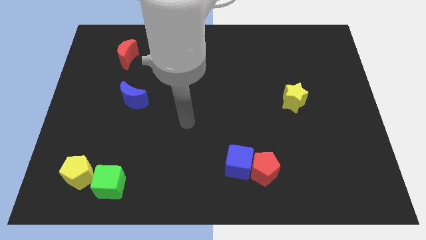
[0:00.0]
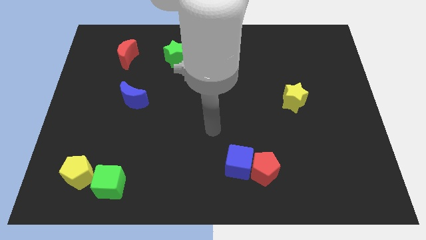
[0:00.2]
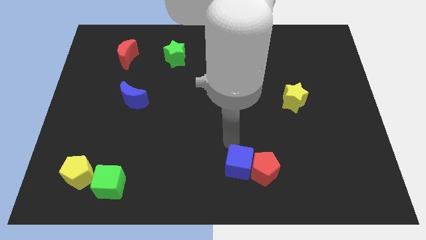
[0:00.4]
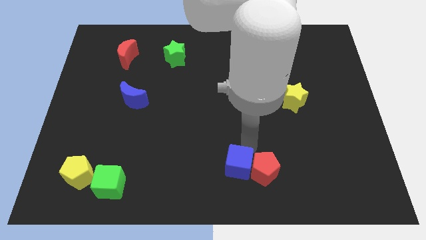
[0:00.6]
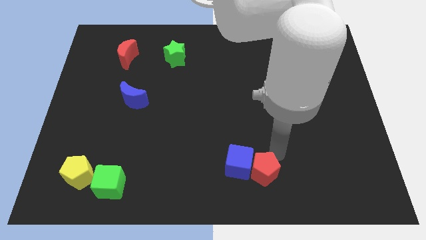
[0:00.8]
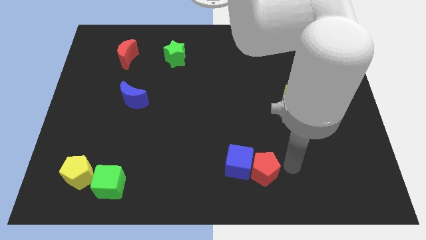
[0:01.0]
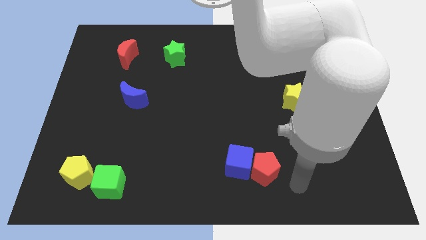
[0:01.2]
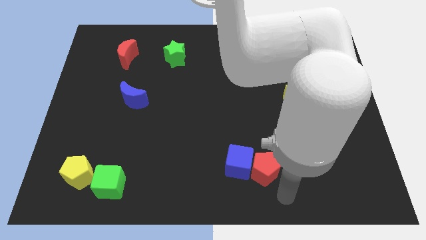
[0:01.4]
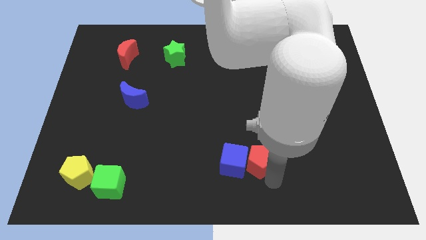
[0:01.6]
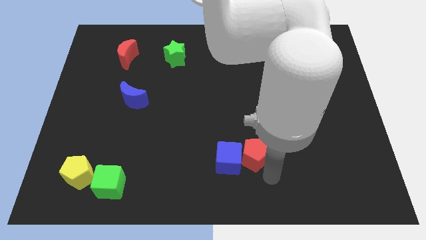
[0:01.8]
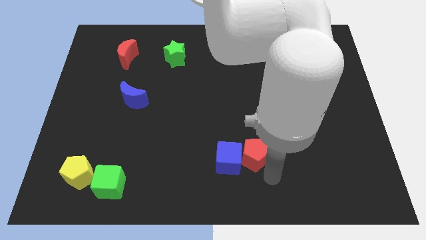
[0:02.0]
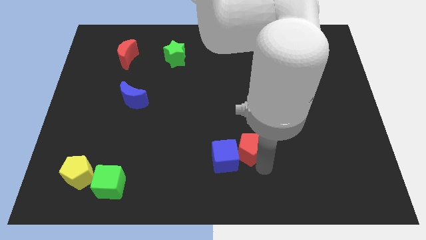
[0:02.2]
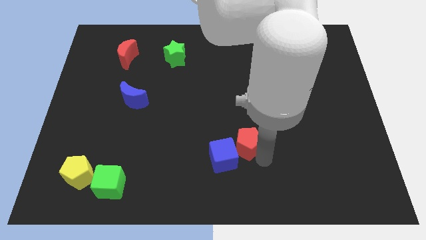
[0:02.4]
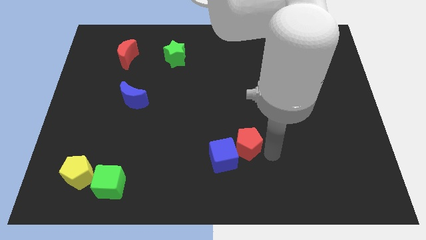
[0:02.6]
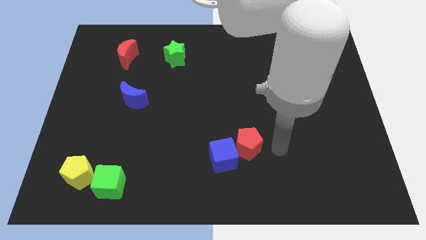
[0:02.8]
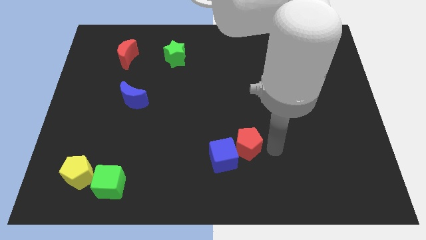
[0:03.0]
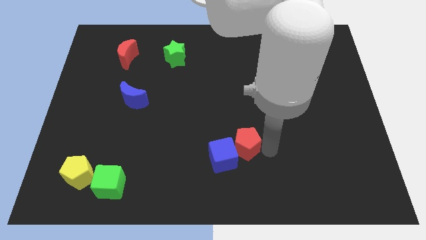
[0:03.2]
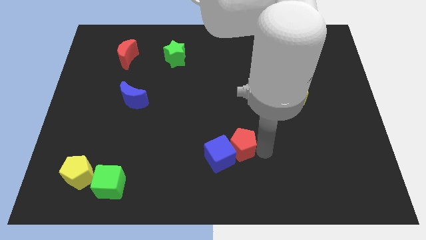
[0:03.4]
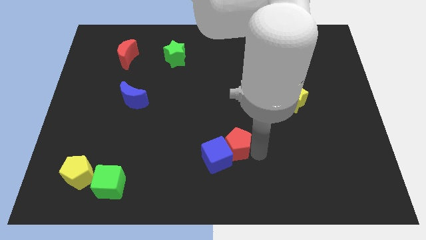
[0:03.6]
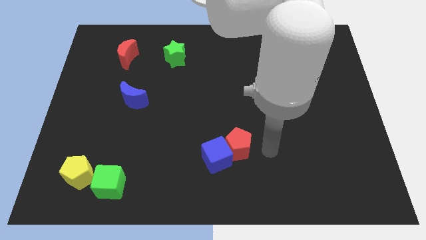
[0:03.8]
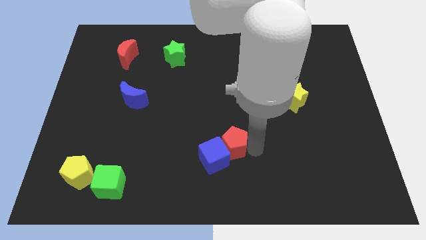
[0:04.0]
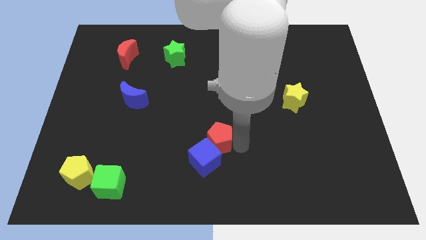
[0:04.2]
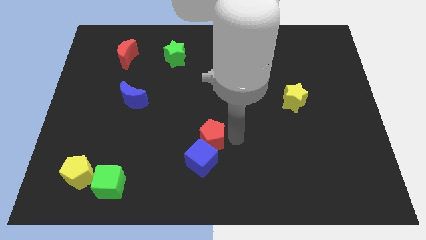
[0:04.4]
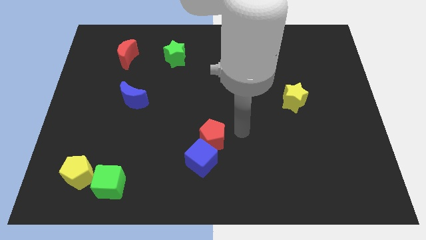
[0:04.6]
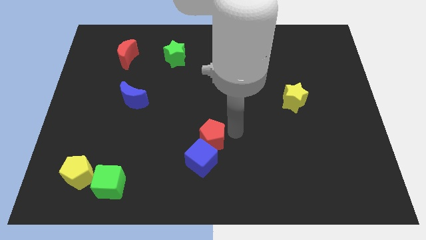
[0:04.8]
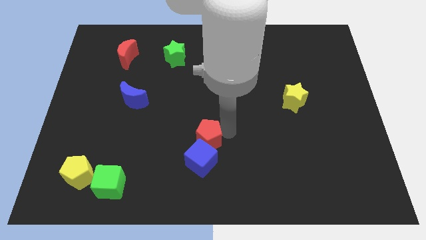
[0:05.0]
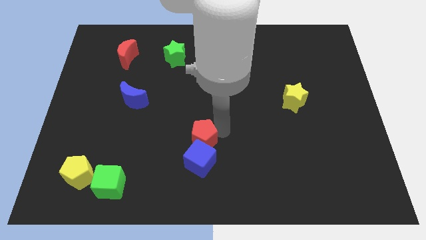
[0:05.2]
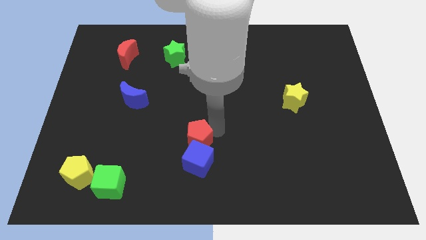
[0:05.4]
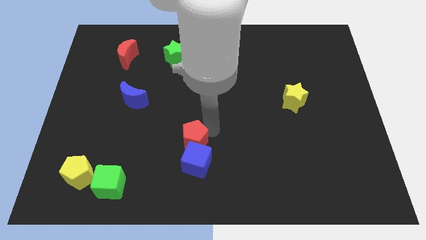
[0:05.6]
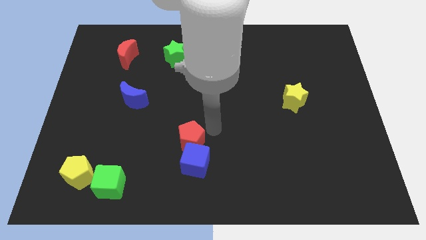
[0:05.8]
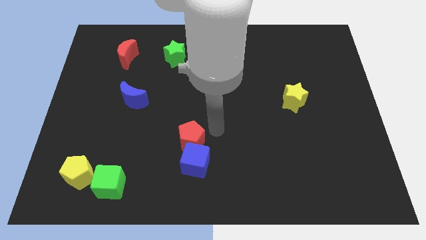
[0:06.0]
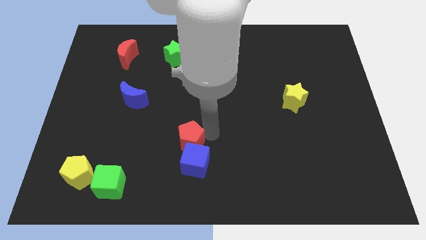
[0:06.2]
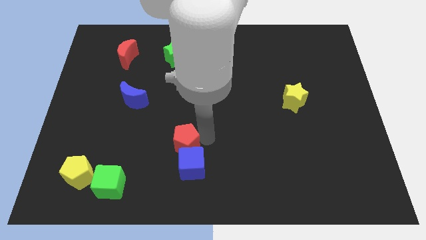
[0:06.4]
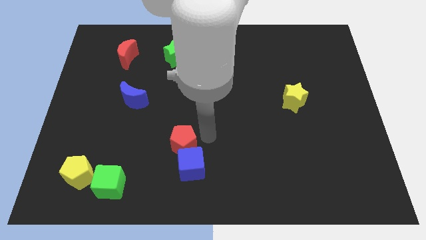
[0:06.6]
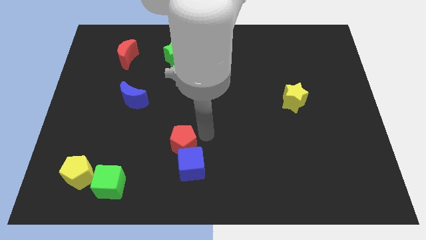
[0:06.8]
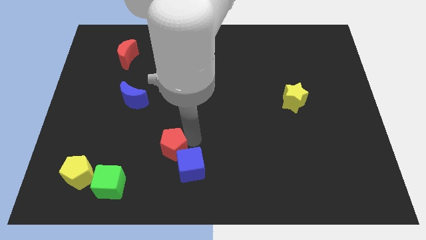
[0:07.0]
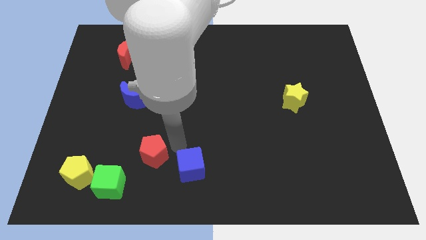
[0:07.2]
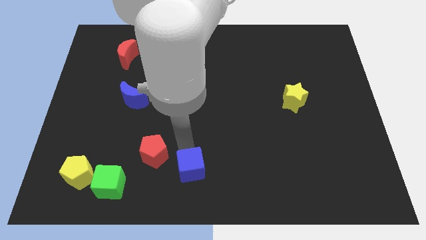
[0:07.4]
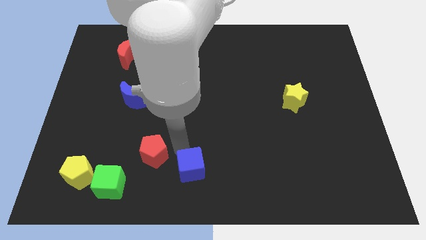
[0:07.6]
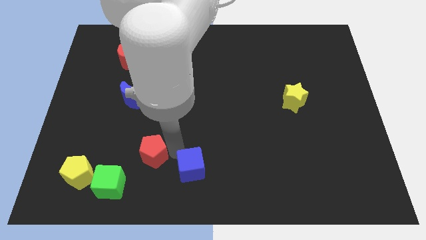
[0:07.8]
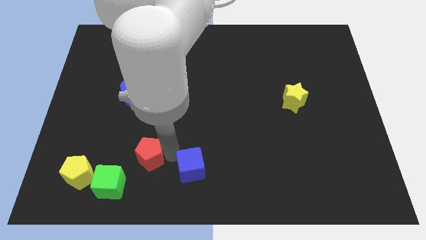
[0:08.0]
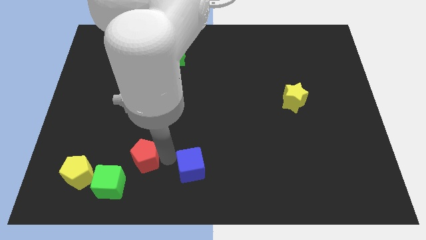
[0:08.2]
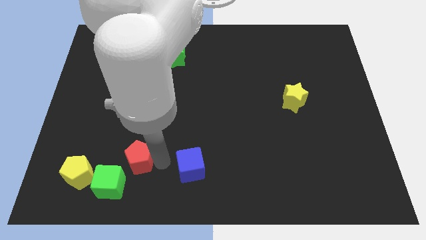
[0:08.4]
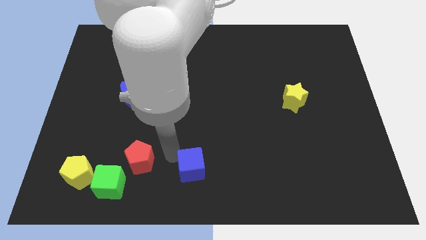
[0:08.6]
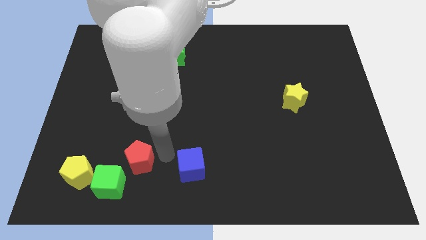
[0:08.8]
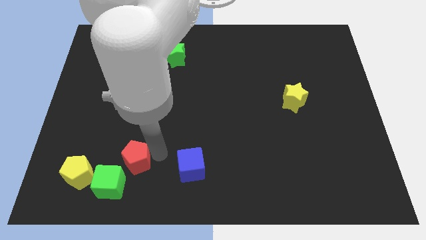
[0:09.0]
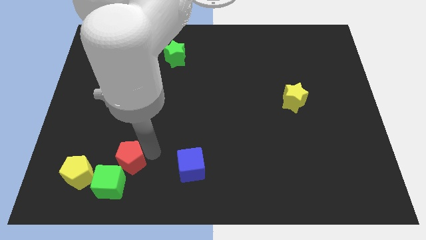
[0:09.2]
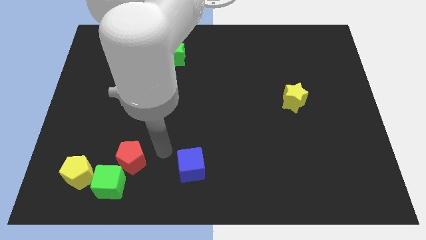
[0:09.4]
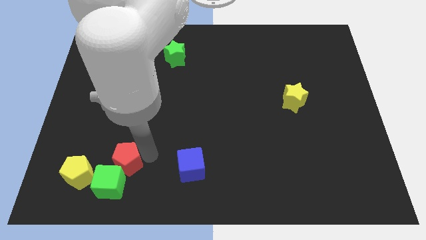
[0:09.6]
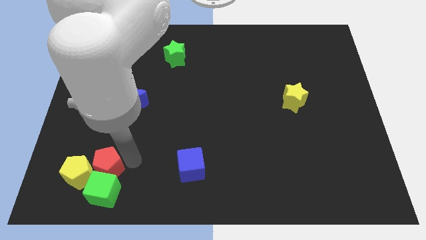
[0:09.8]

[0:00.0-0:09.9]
push the red pentagon to the yellow pentagon

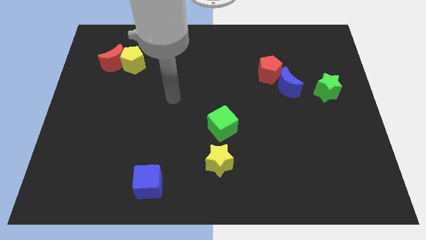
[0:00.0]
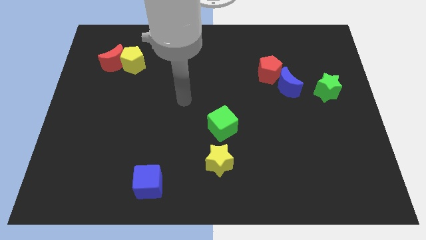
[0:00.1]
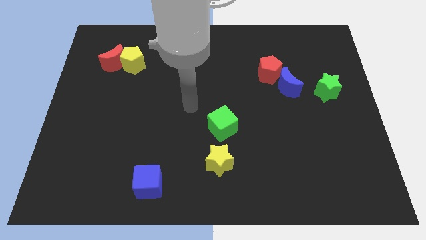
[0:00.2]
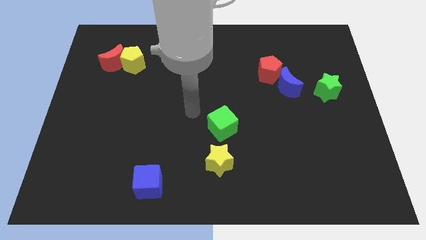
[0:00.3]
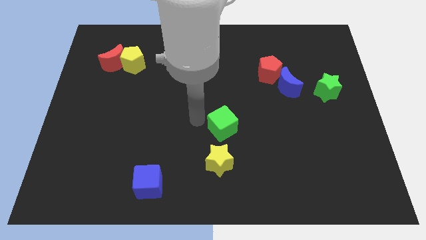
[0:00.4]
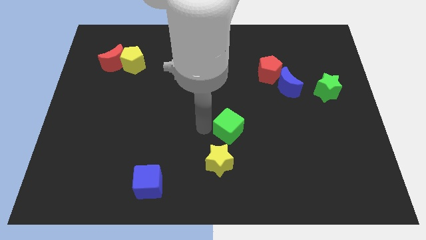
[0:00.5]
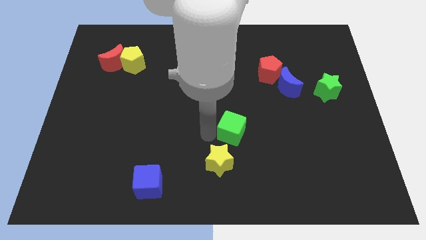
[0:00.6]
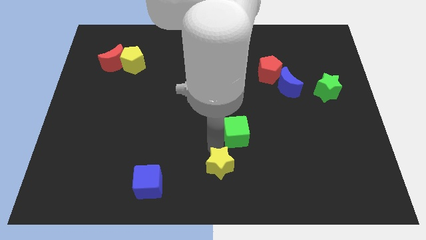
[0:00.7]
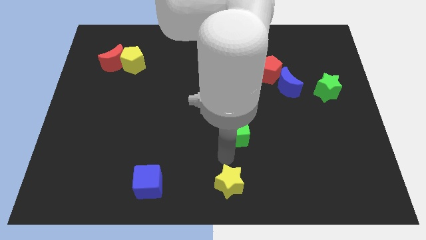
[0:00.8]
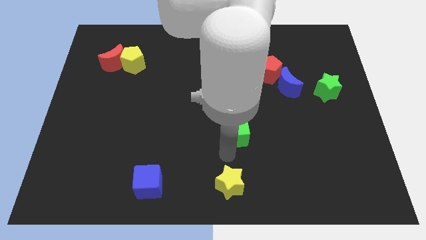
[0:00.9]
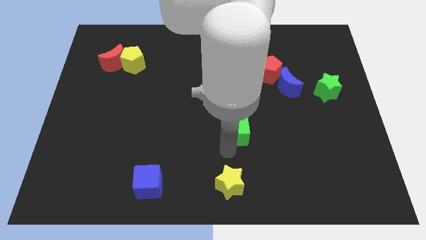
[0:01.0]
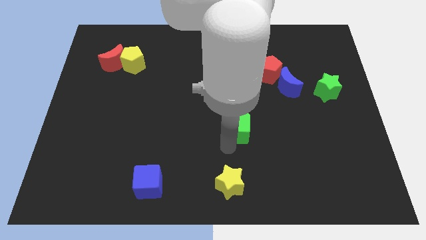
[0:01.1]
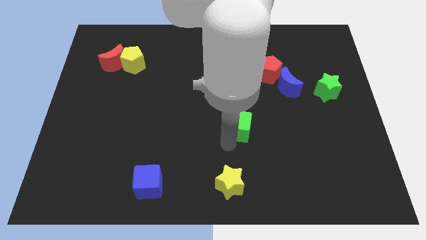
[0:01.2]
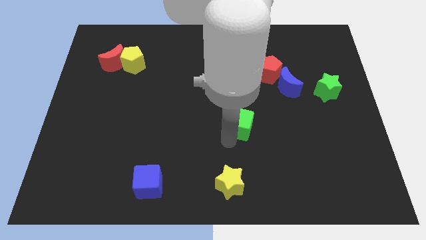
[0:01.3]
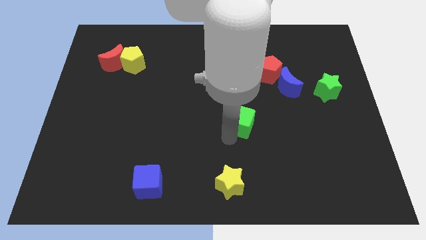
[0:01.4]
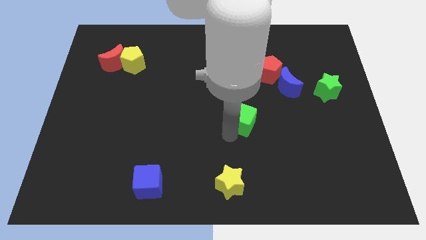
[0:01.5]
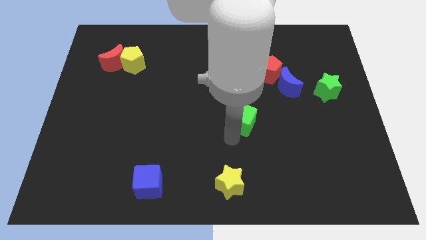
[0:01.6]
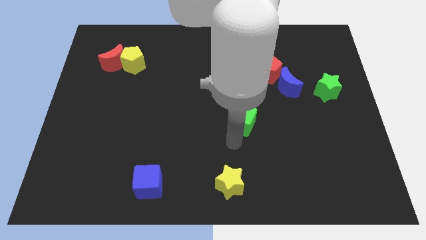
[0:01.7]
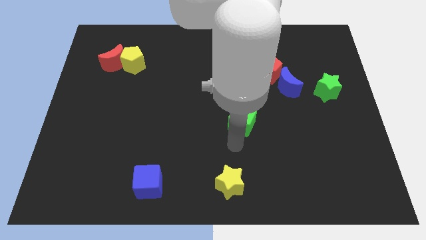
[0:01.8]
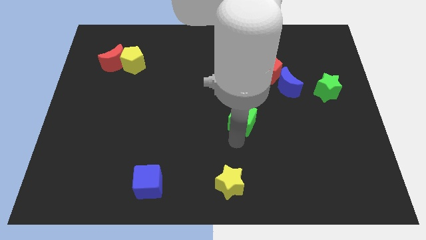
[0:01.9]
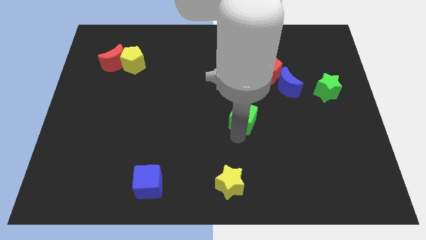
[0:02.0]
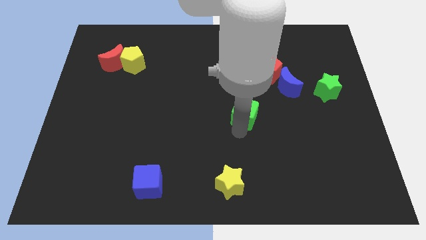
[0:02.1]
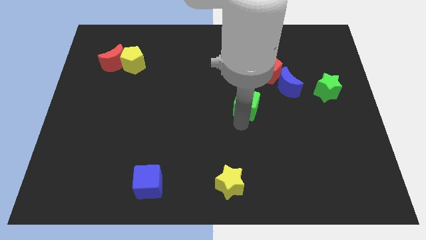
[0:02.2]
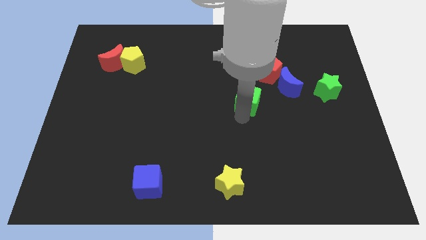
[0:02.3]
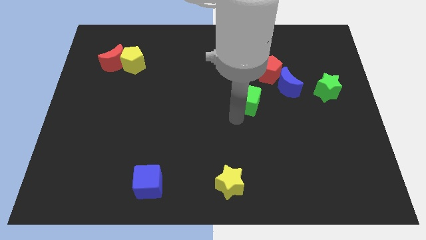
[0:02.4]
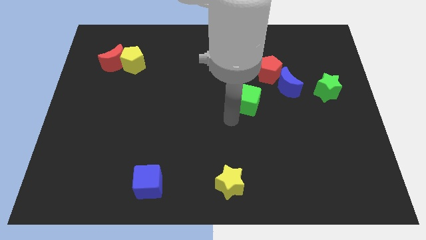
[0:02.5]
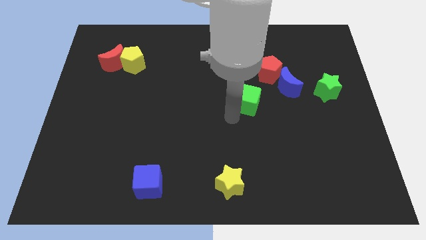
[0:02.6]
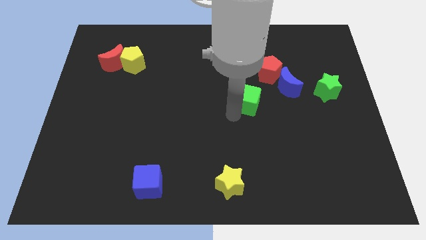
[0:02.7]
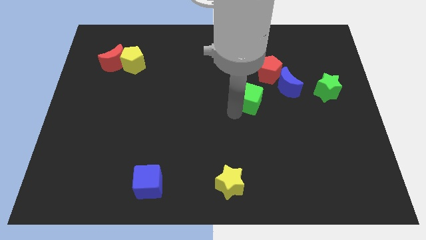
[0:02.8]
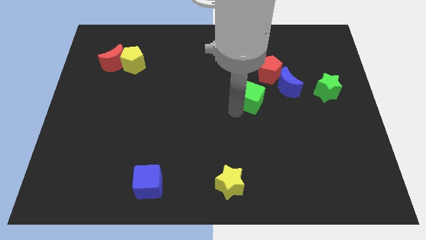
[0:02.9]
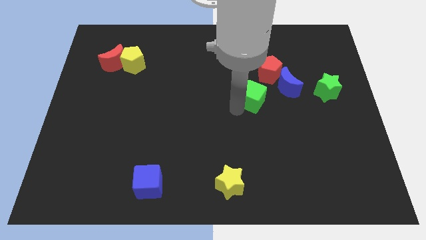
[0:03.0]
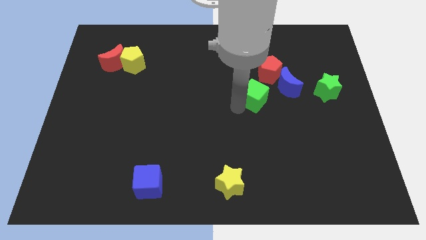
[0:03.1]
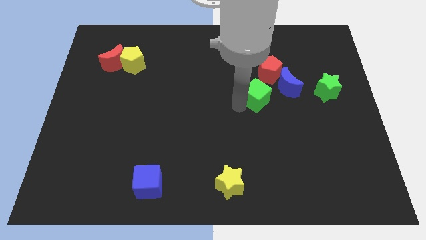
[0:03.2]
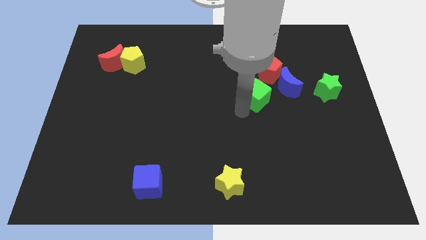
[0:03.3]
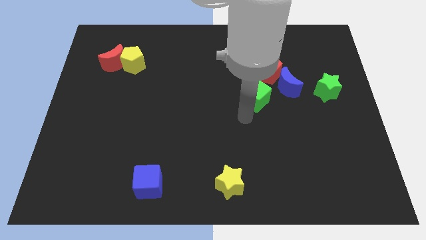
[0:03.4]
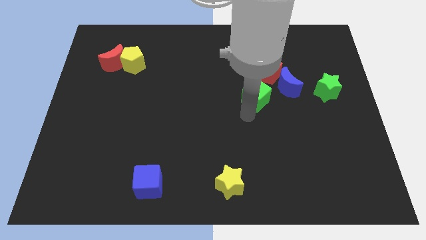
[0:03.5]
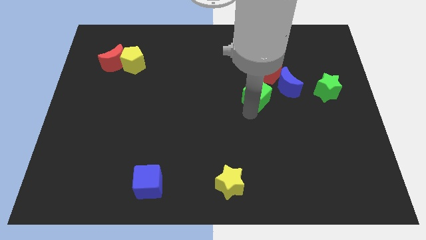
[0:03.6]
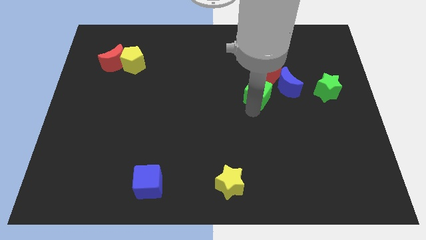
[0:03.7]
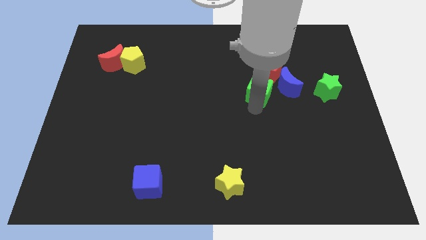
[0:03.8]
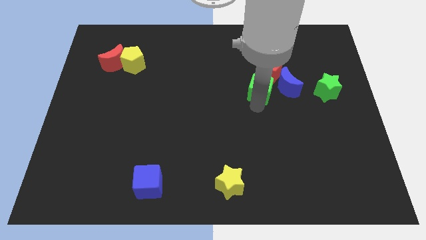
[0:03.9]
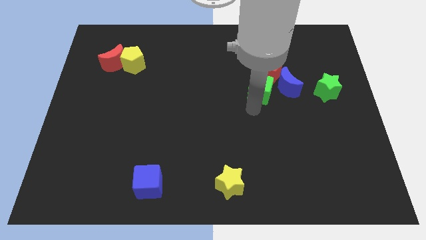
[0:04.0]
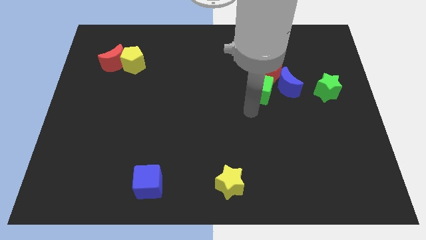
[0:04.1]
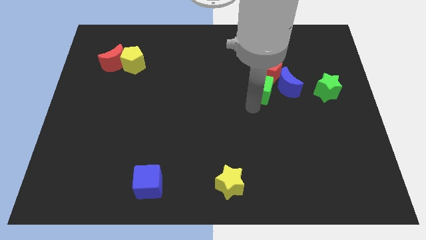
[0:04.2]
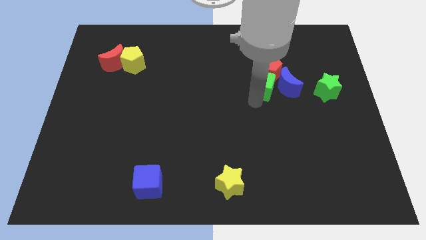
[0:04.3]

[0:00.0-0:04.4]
put the green cube towards the red pentagon
